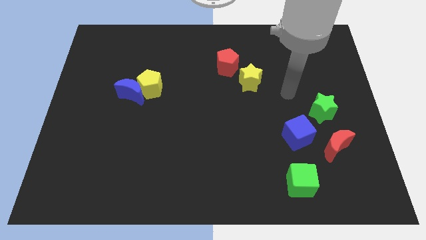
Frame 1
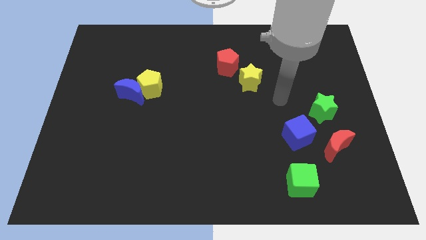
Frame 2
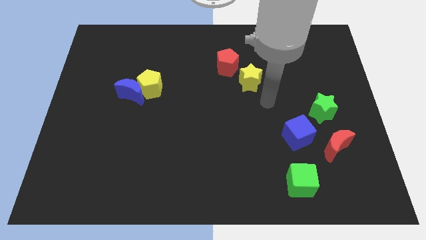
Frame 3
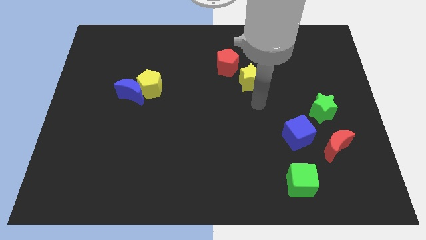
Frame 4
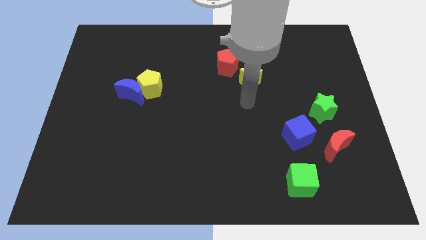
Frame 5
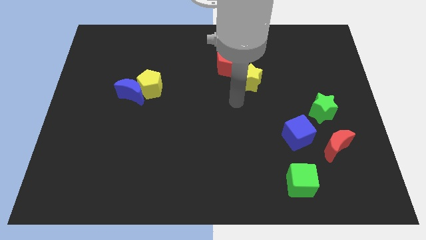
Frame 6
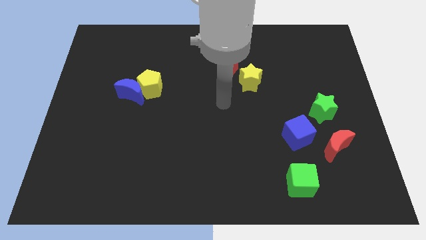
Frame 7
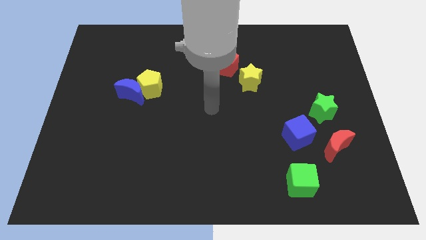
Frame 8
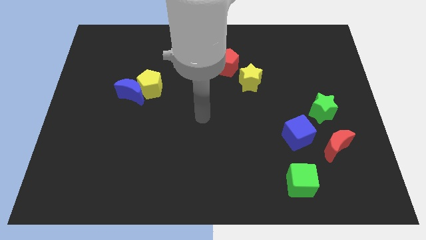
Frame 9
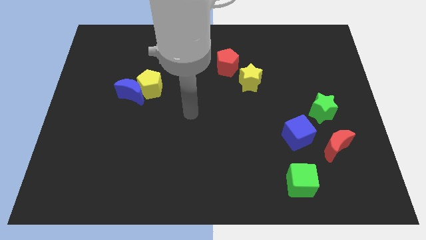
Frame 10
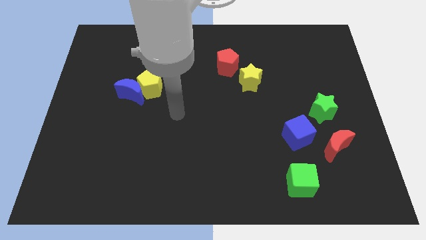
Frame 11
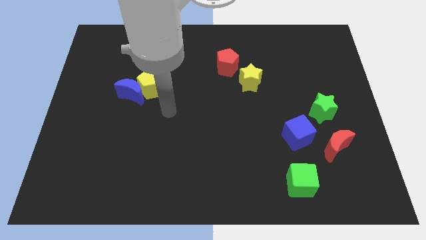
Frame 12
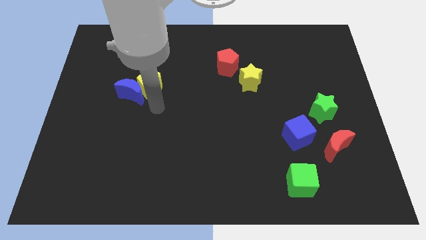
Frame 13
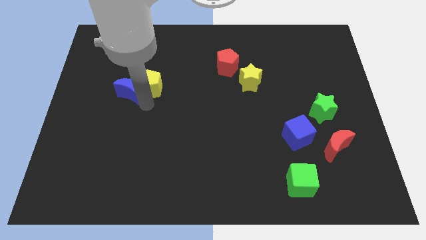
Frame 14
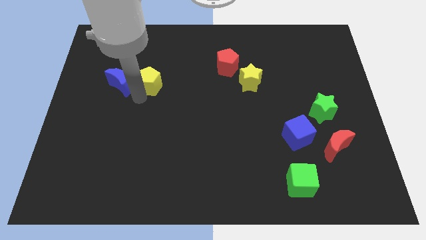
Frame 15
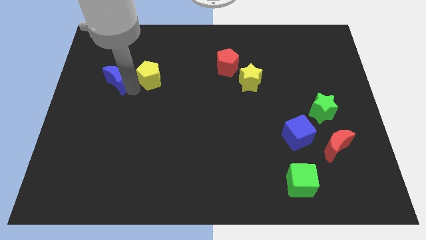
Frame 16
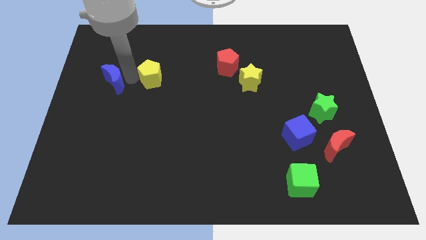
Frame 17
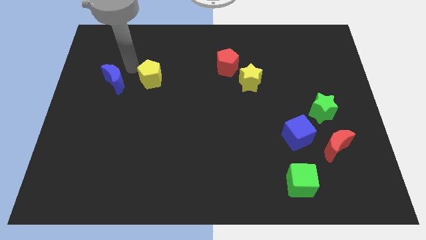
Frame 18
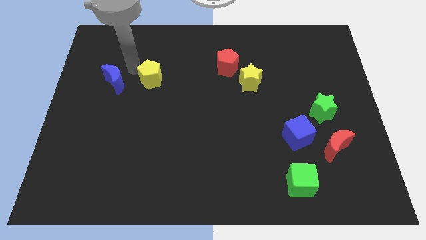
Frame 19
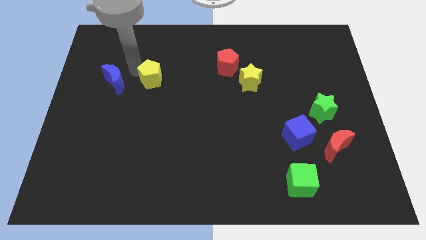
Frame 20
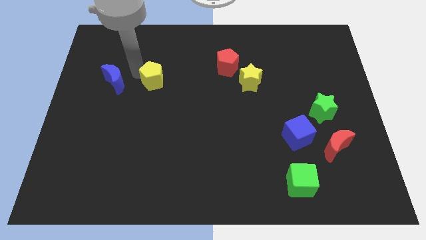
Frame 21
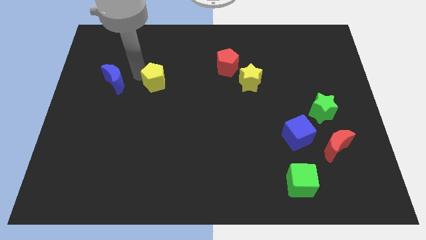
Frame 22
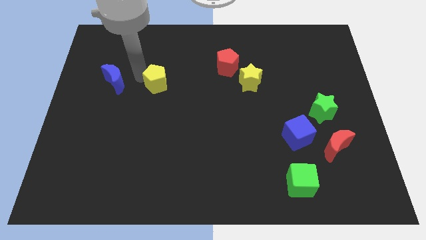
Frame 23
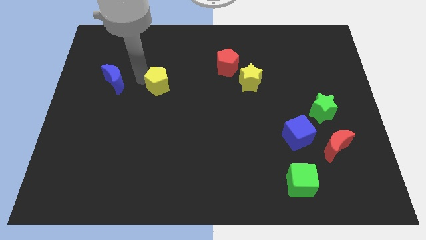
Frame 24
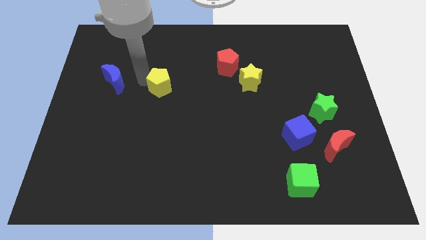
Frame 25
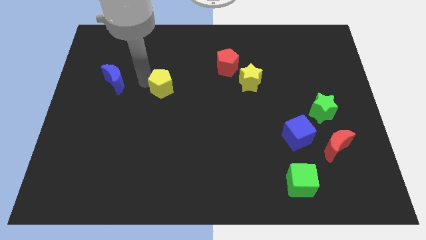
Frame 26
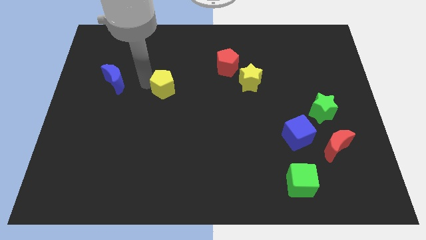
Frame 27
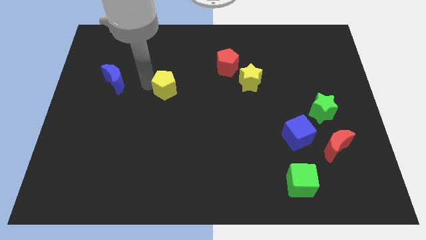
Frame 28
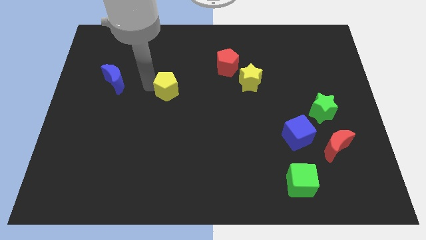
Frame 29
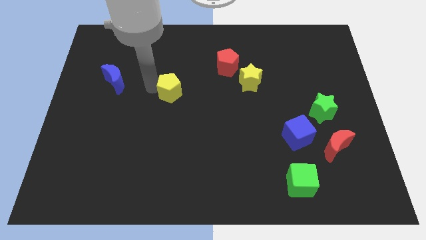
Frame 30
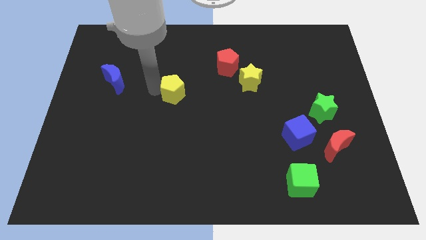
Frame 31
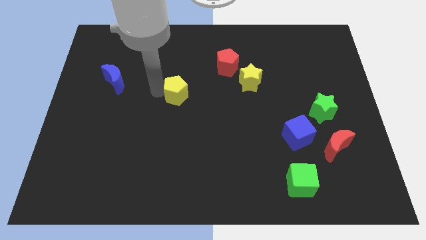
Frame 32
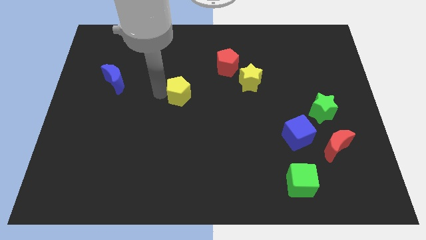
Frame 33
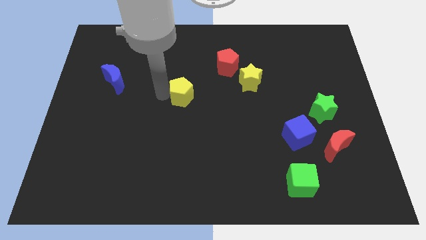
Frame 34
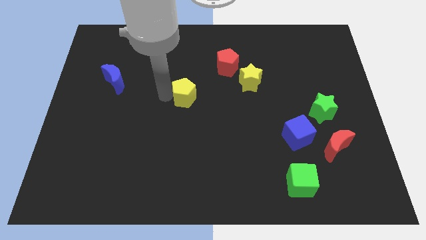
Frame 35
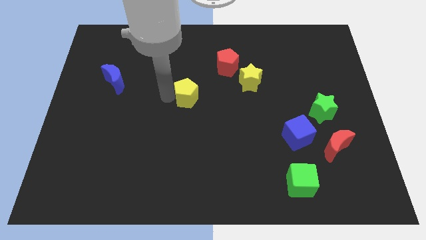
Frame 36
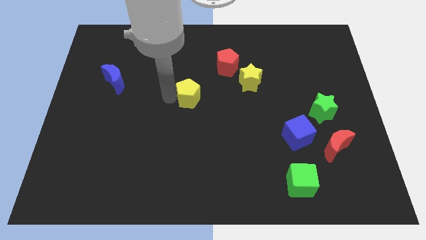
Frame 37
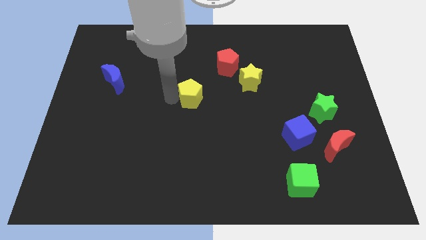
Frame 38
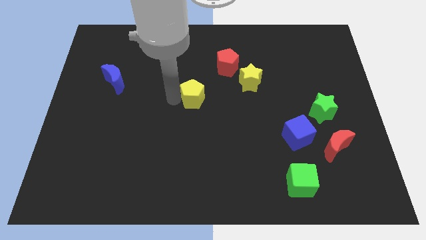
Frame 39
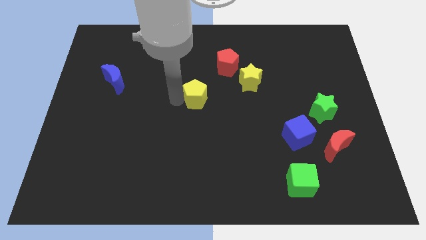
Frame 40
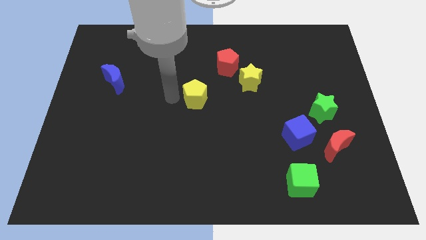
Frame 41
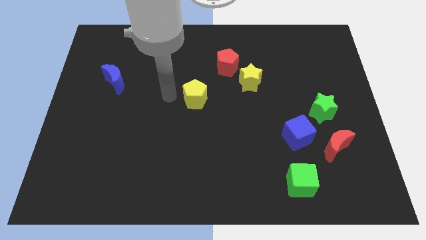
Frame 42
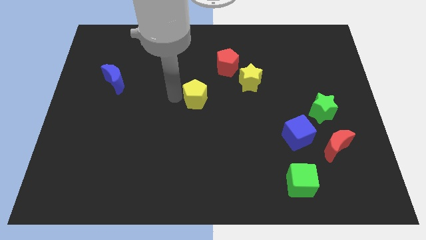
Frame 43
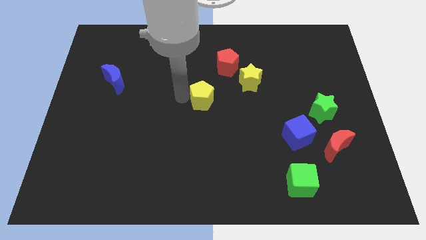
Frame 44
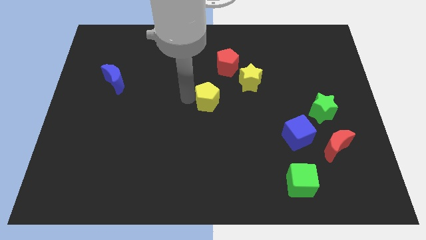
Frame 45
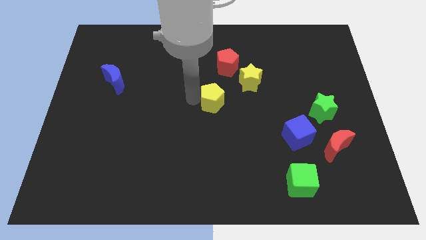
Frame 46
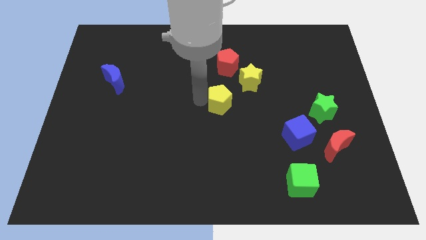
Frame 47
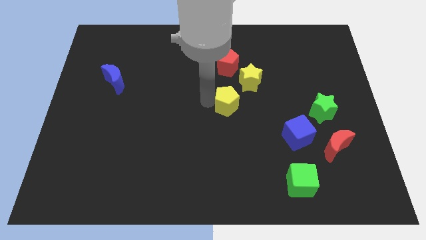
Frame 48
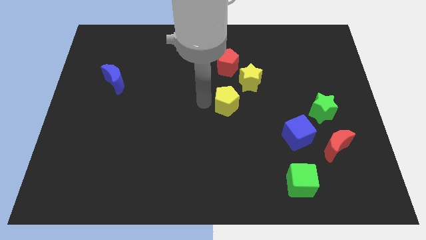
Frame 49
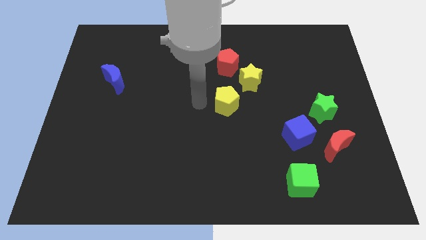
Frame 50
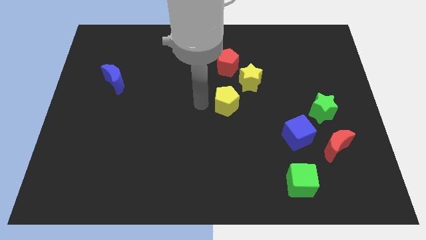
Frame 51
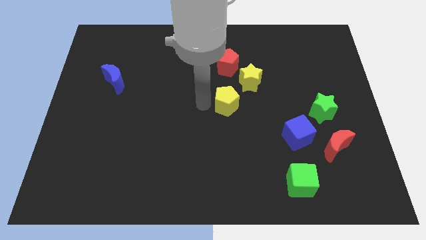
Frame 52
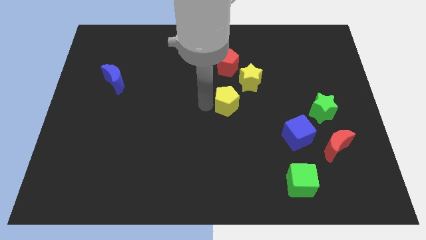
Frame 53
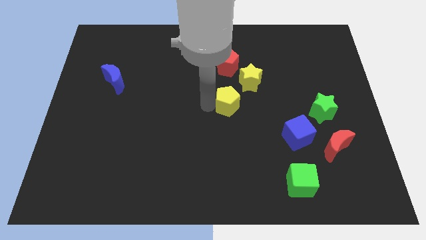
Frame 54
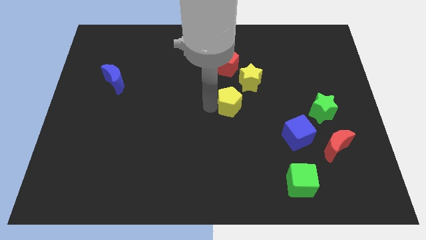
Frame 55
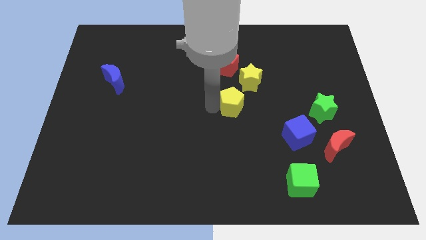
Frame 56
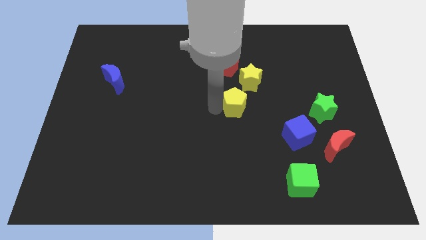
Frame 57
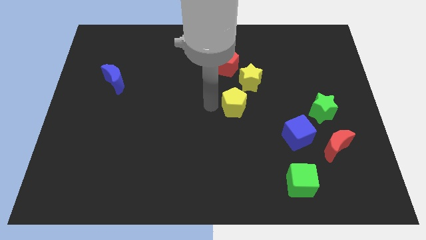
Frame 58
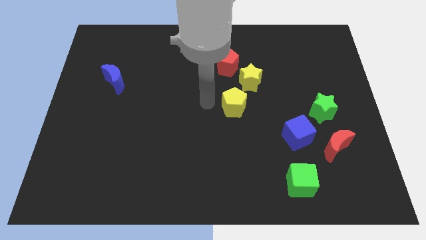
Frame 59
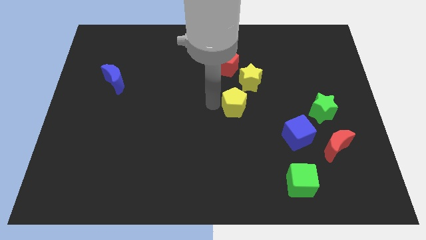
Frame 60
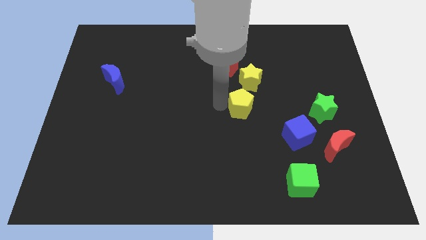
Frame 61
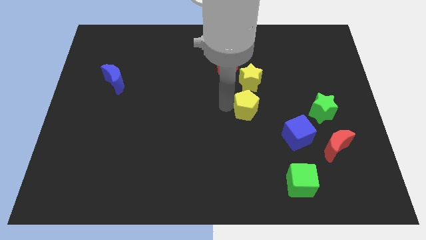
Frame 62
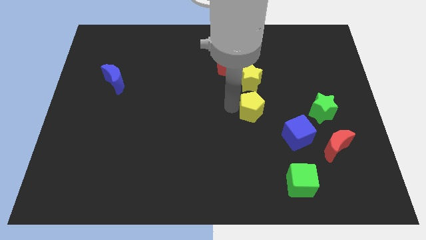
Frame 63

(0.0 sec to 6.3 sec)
push the yellow pentagon to the left side of the green star

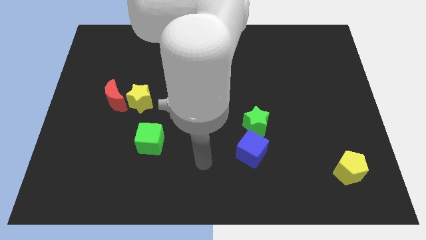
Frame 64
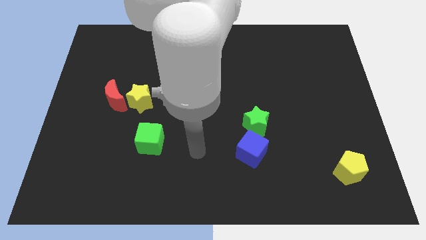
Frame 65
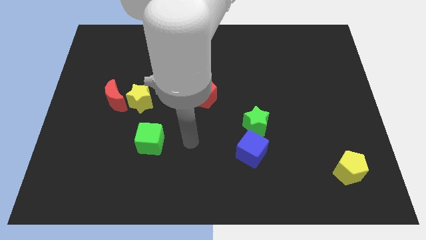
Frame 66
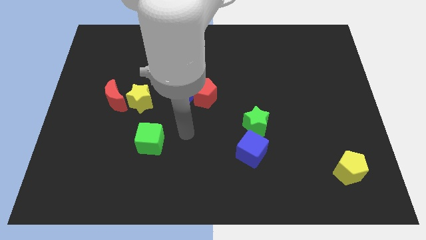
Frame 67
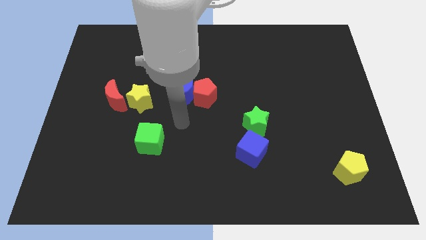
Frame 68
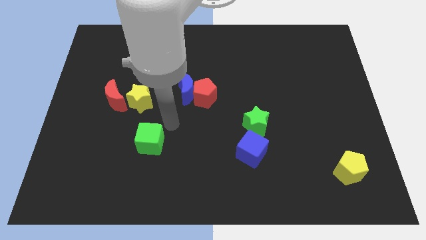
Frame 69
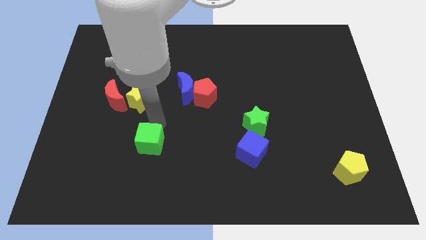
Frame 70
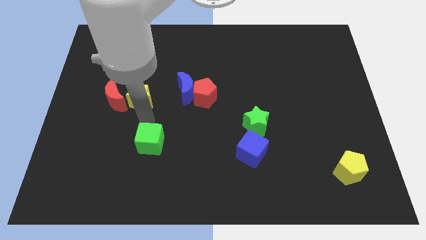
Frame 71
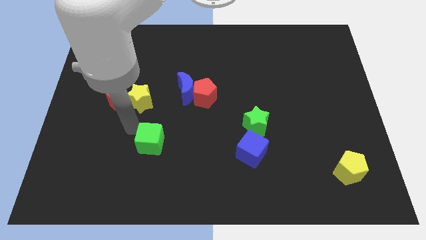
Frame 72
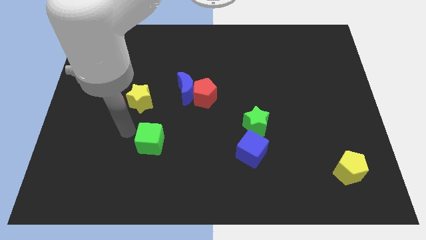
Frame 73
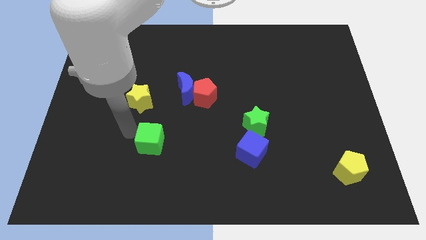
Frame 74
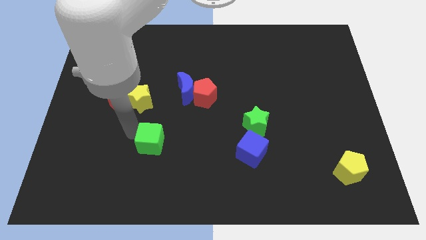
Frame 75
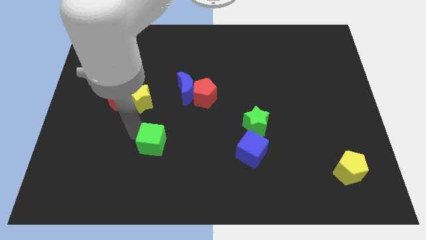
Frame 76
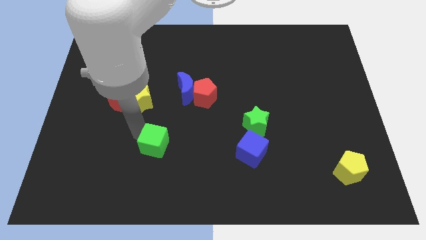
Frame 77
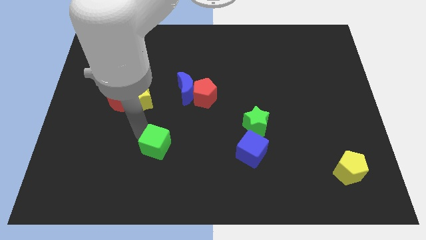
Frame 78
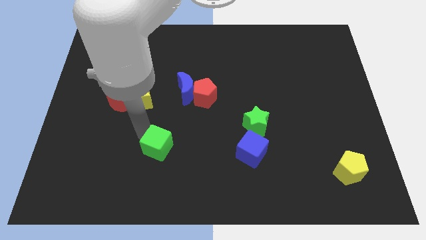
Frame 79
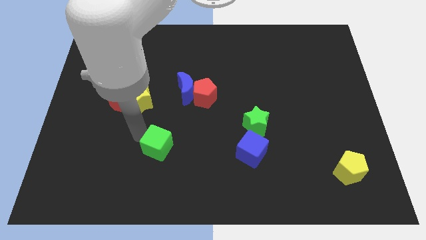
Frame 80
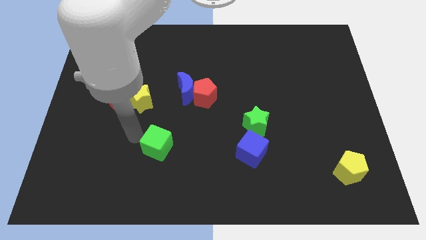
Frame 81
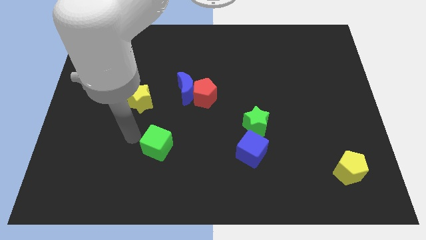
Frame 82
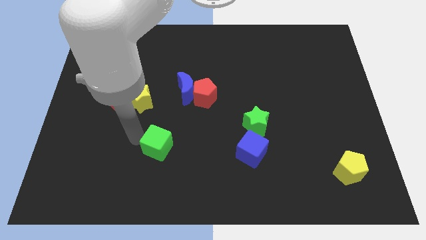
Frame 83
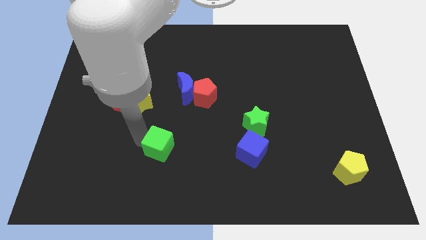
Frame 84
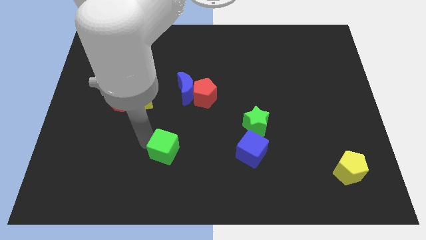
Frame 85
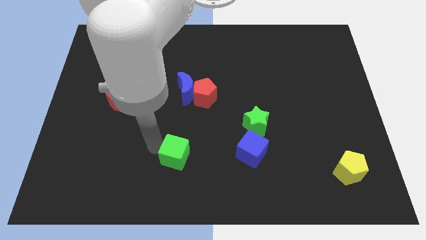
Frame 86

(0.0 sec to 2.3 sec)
move the green cube left of the blue cube
